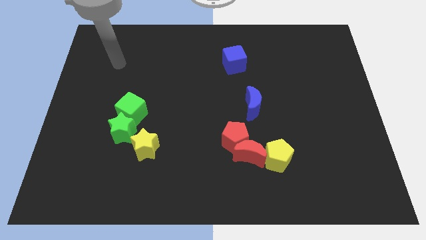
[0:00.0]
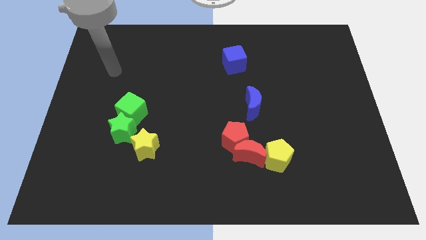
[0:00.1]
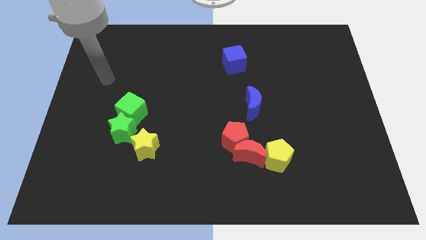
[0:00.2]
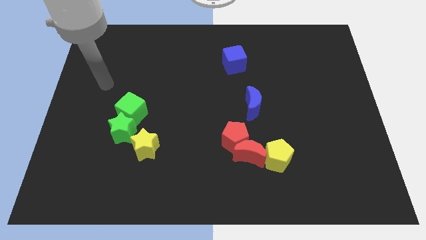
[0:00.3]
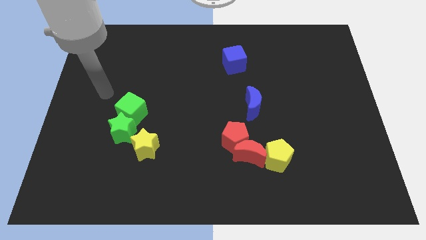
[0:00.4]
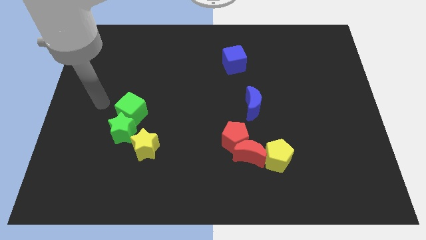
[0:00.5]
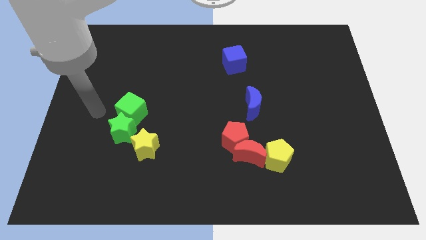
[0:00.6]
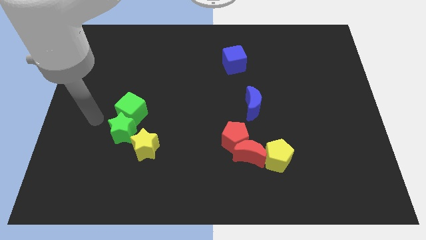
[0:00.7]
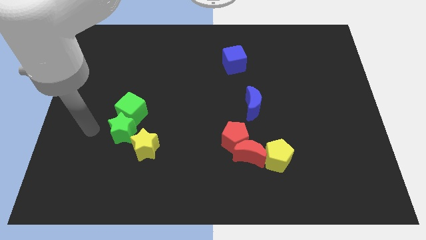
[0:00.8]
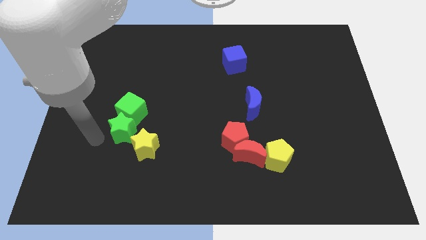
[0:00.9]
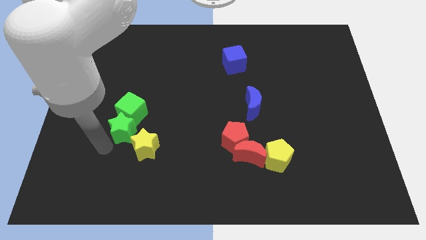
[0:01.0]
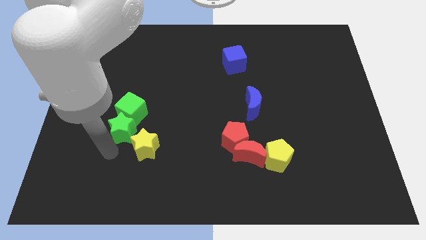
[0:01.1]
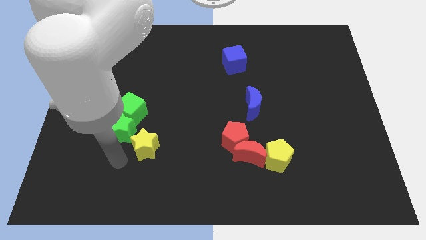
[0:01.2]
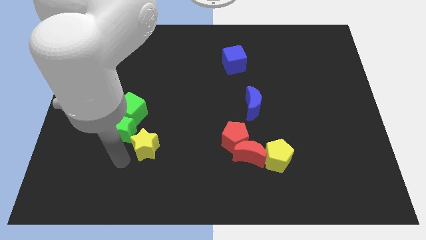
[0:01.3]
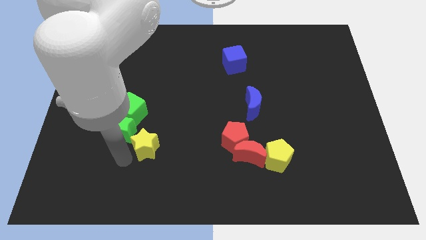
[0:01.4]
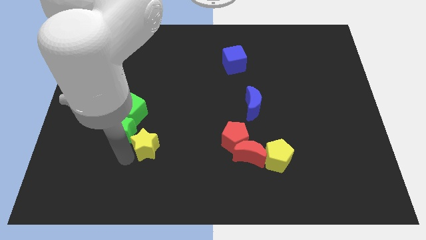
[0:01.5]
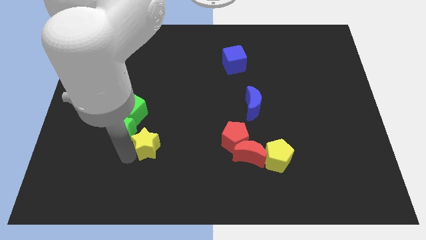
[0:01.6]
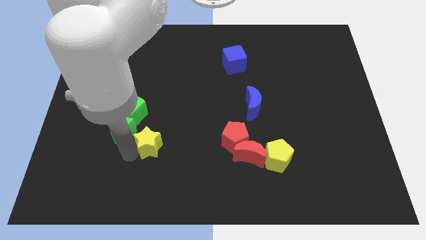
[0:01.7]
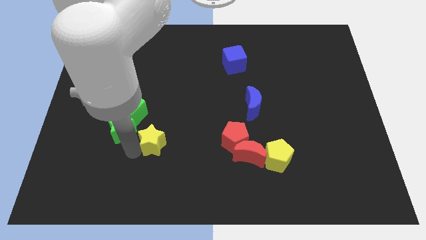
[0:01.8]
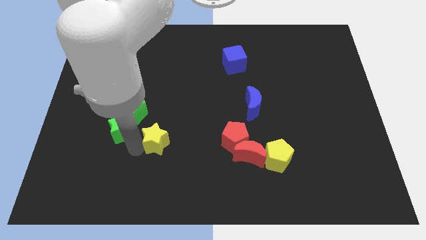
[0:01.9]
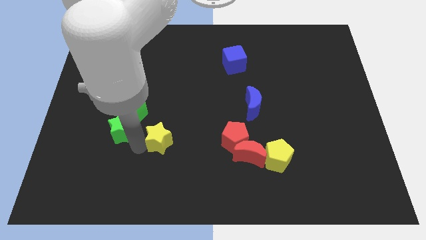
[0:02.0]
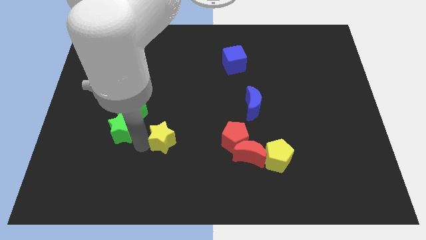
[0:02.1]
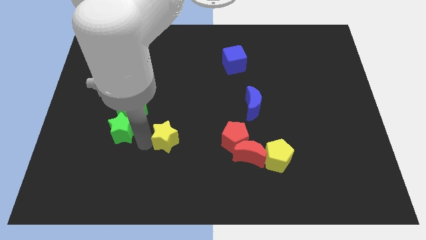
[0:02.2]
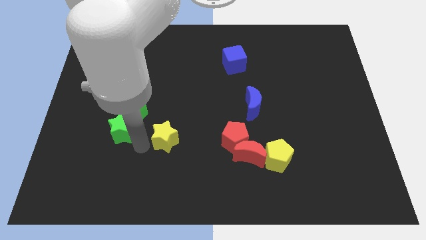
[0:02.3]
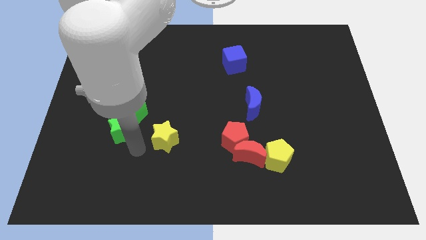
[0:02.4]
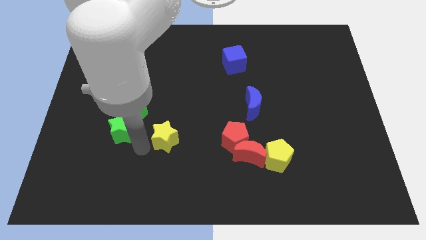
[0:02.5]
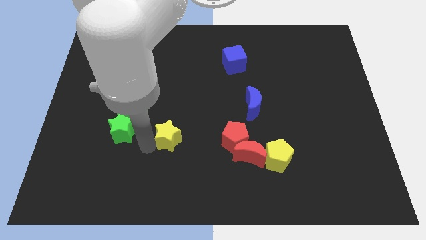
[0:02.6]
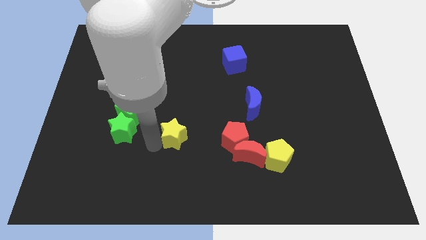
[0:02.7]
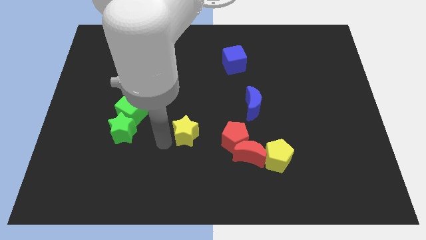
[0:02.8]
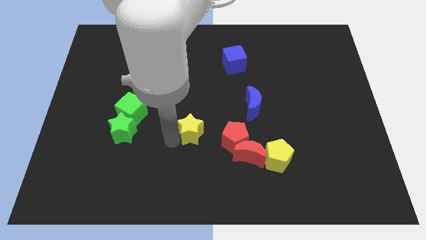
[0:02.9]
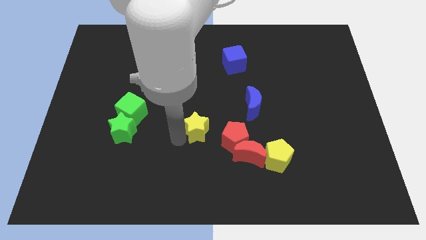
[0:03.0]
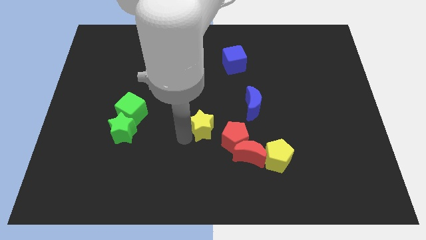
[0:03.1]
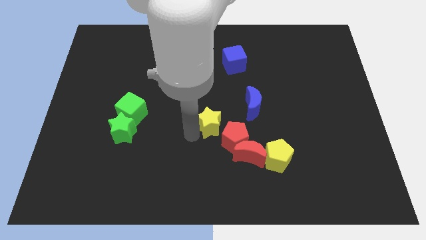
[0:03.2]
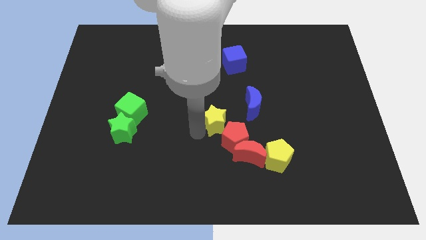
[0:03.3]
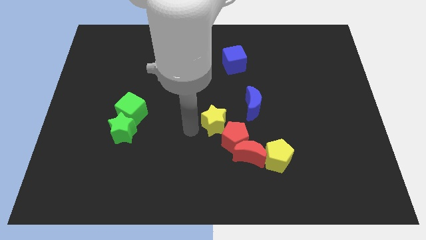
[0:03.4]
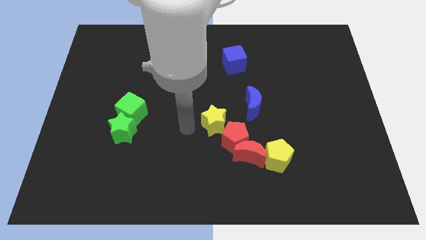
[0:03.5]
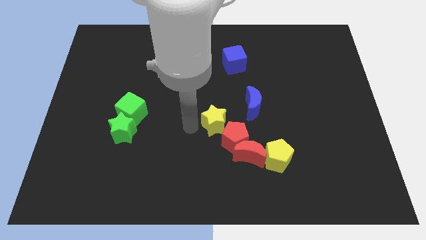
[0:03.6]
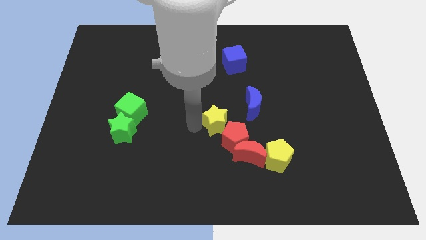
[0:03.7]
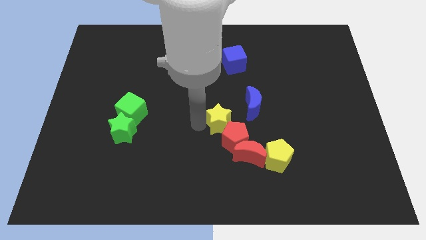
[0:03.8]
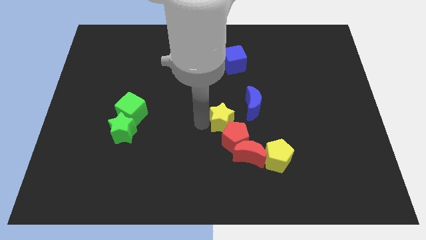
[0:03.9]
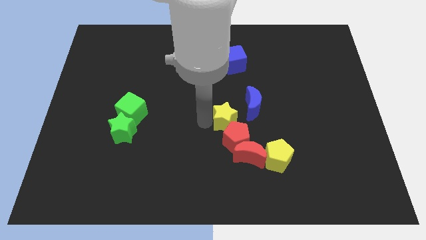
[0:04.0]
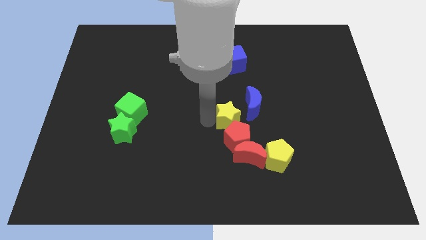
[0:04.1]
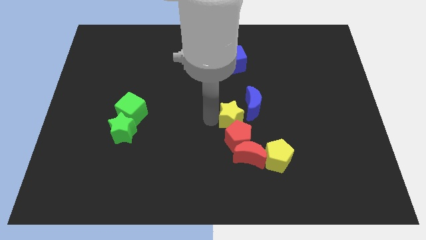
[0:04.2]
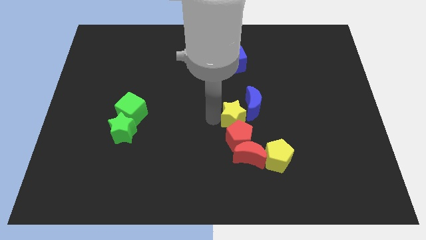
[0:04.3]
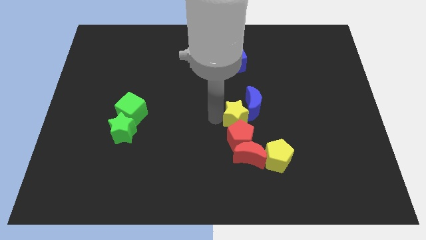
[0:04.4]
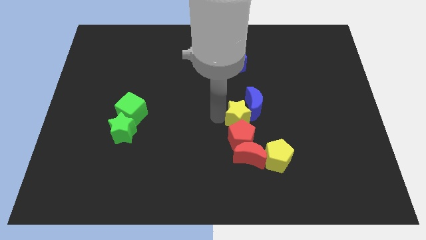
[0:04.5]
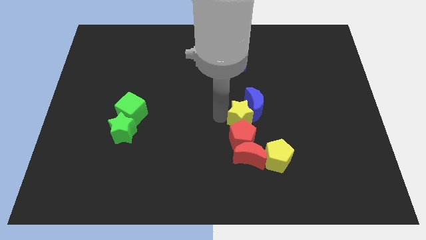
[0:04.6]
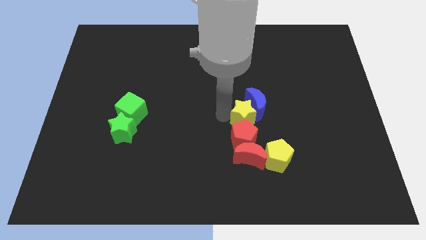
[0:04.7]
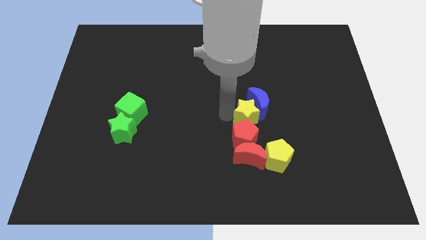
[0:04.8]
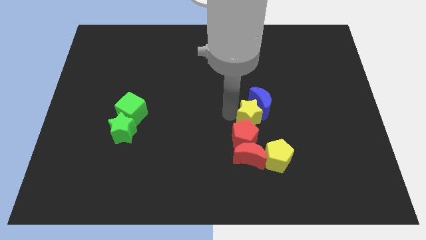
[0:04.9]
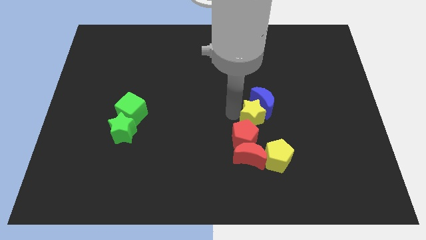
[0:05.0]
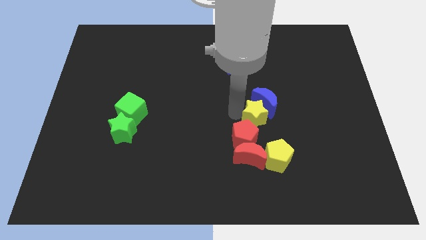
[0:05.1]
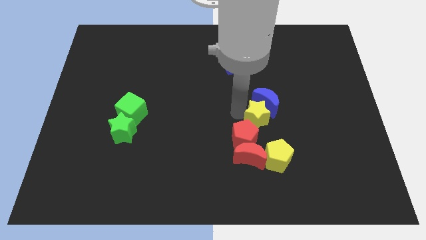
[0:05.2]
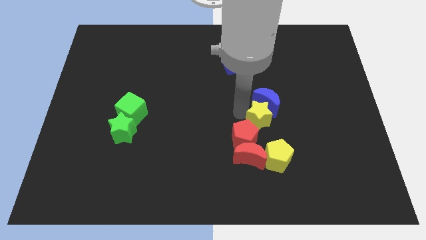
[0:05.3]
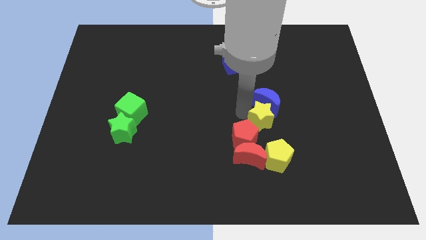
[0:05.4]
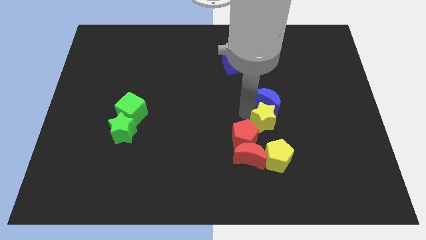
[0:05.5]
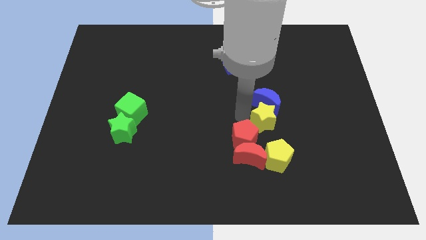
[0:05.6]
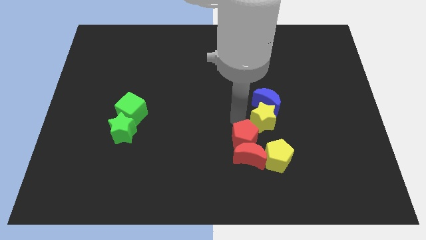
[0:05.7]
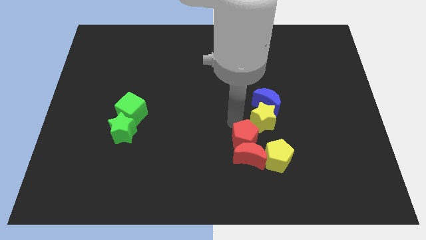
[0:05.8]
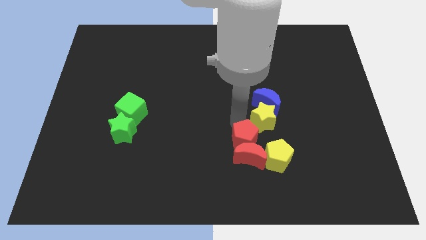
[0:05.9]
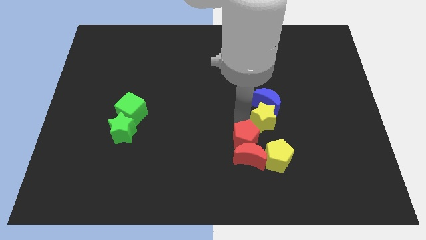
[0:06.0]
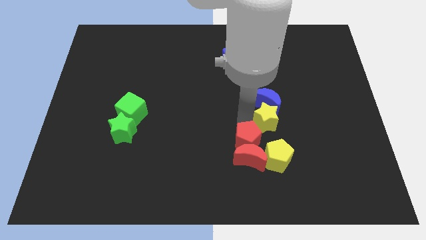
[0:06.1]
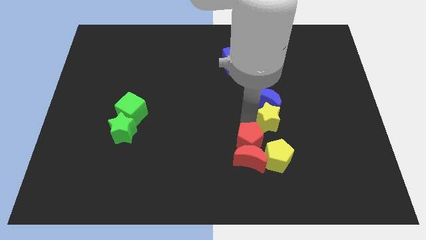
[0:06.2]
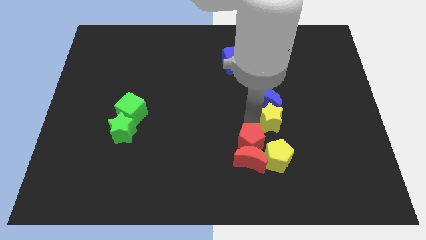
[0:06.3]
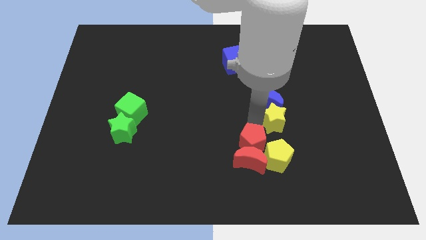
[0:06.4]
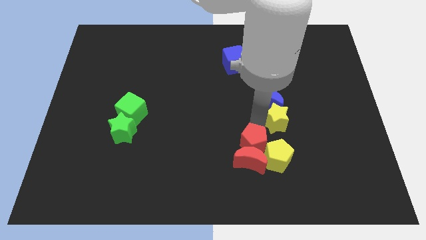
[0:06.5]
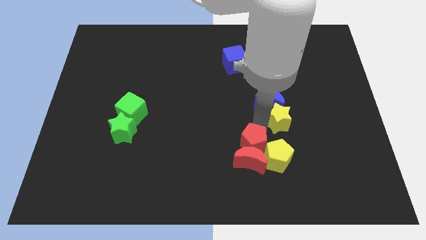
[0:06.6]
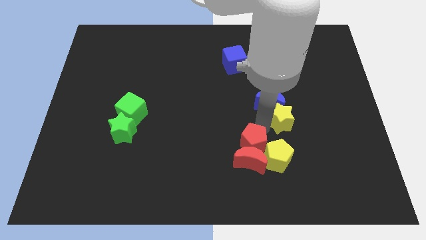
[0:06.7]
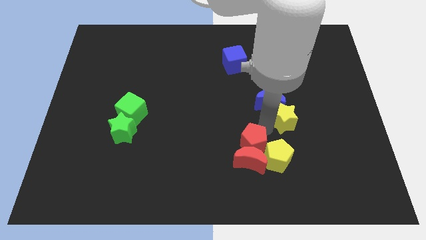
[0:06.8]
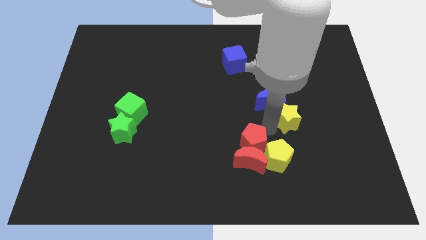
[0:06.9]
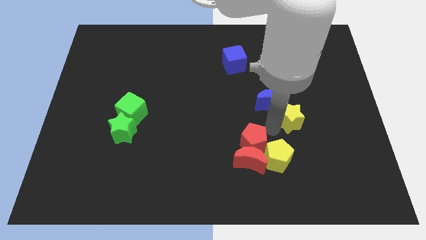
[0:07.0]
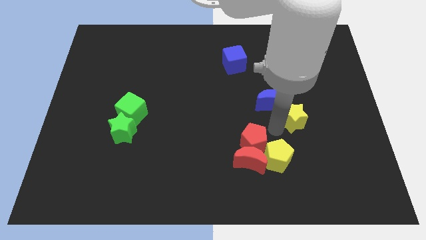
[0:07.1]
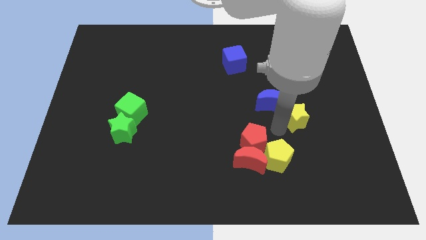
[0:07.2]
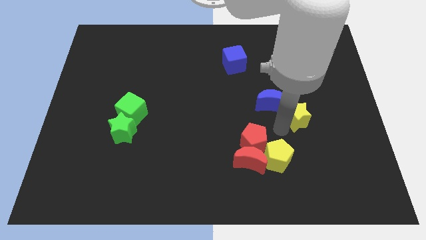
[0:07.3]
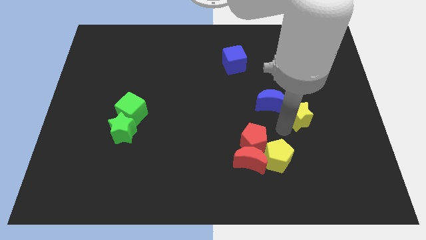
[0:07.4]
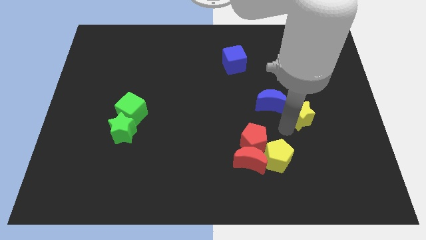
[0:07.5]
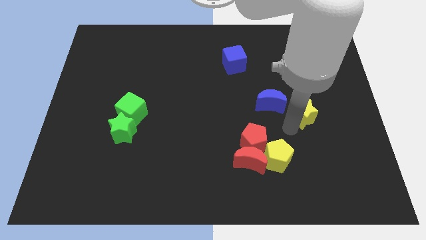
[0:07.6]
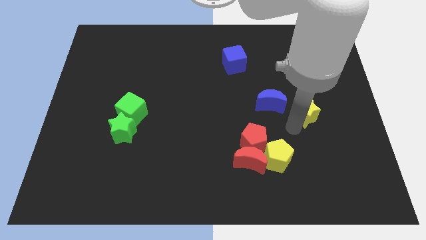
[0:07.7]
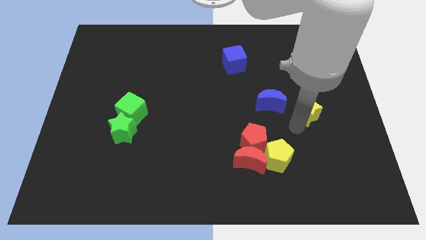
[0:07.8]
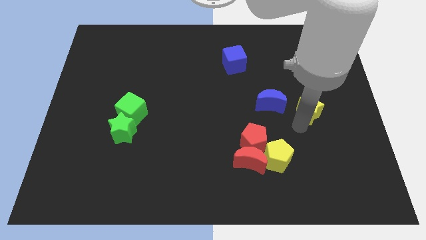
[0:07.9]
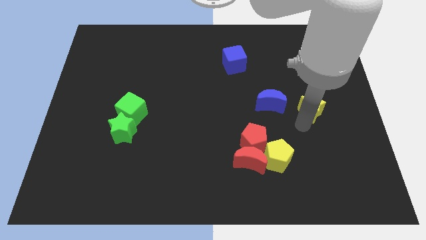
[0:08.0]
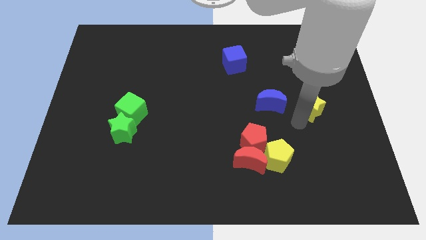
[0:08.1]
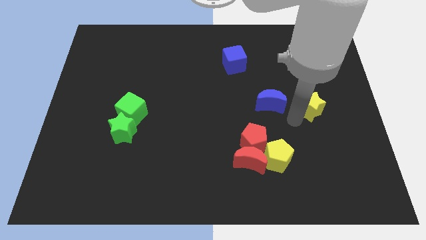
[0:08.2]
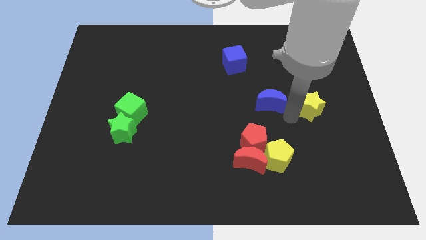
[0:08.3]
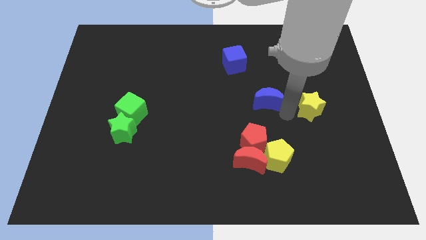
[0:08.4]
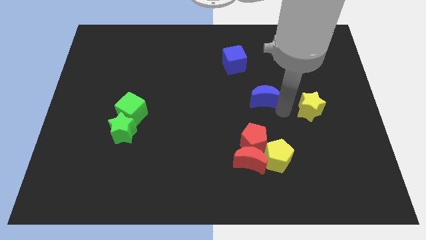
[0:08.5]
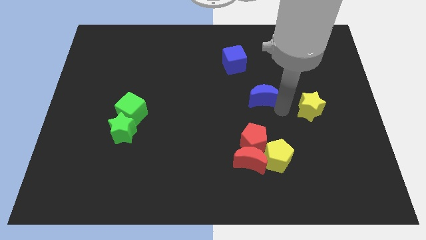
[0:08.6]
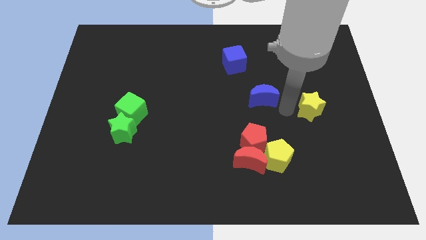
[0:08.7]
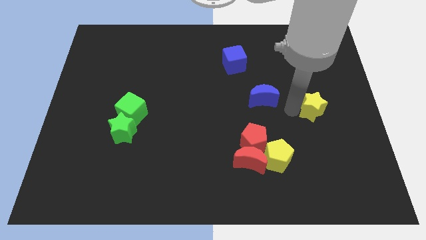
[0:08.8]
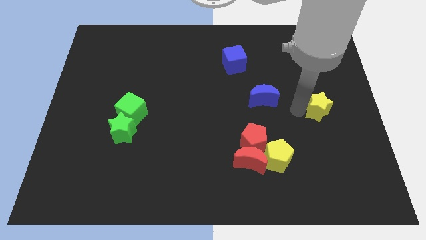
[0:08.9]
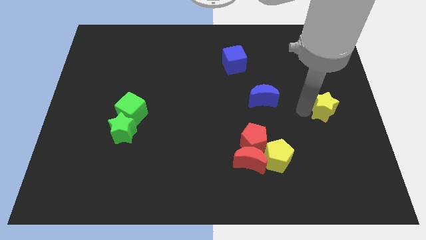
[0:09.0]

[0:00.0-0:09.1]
push the yellow star to the right side
